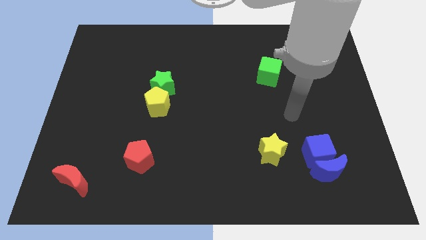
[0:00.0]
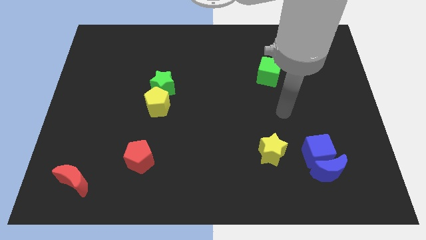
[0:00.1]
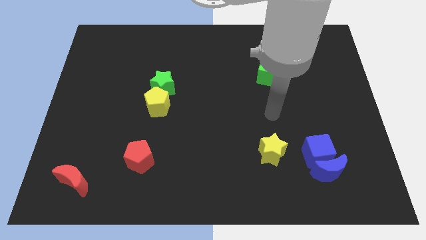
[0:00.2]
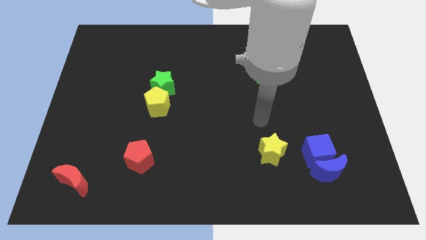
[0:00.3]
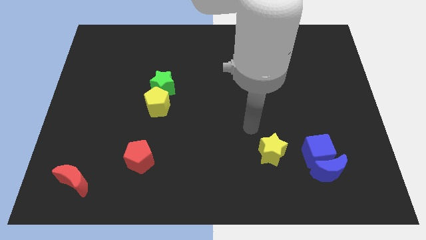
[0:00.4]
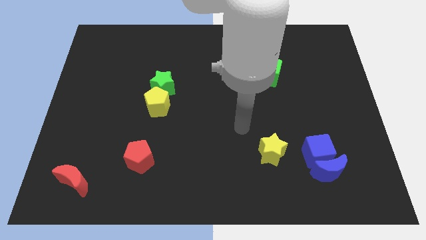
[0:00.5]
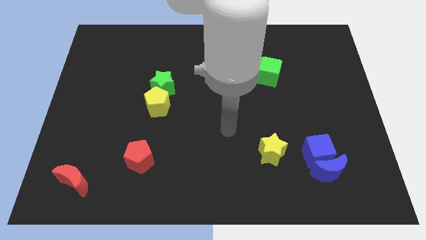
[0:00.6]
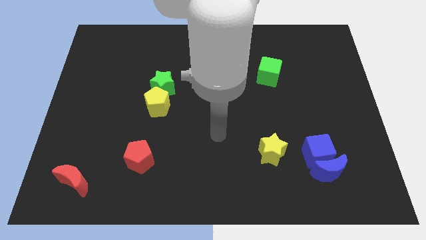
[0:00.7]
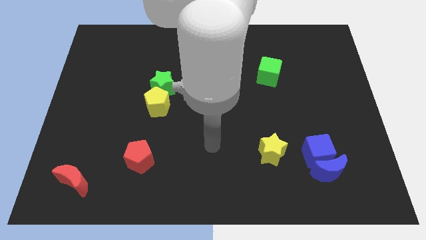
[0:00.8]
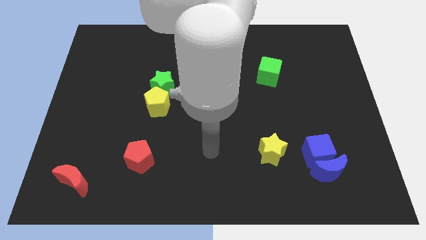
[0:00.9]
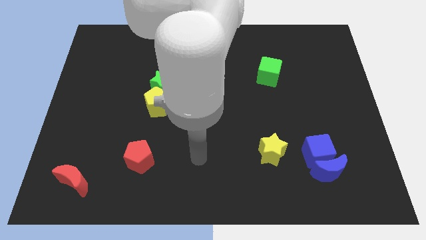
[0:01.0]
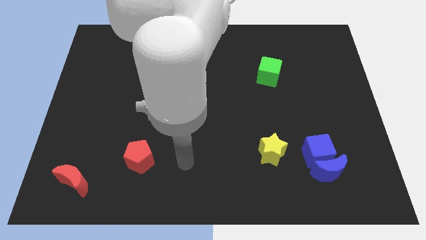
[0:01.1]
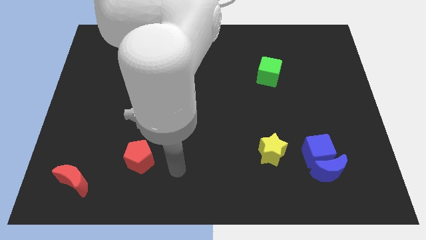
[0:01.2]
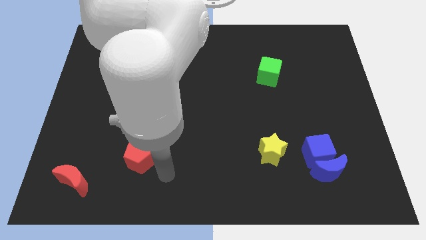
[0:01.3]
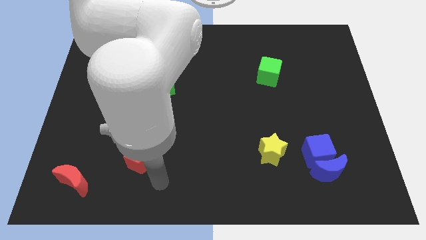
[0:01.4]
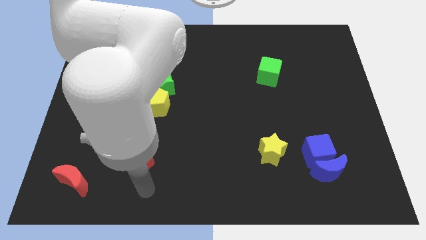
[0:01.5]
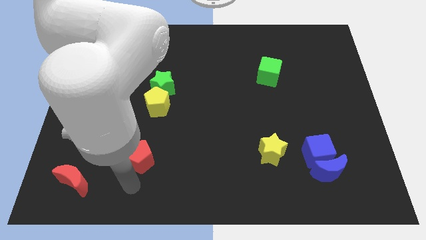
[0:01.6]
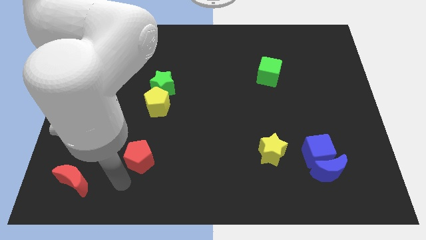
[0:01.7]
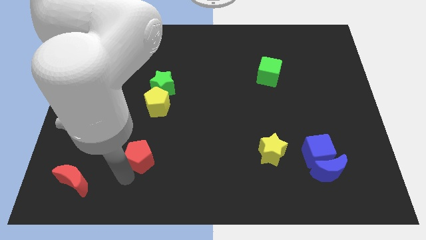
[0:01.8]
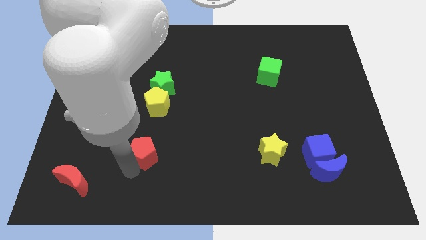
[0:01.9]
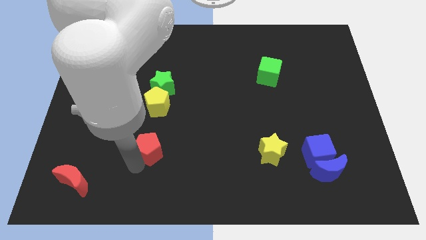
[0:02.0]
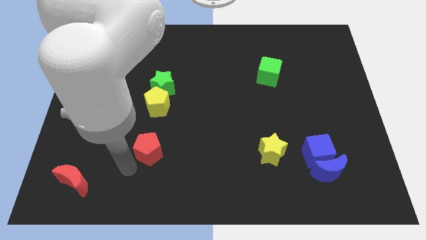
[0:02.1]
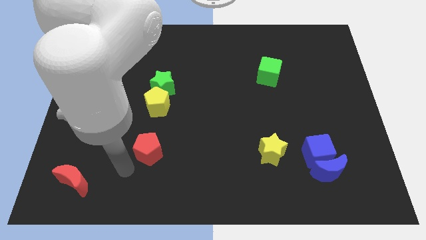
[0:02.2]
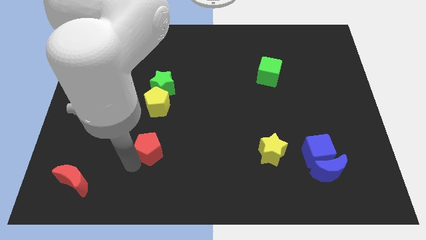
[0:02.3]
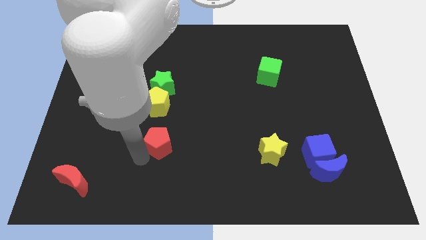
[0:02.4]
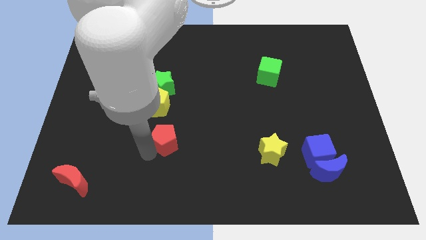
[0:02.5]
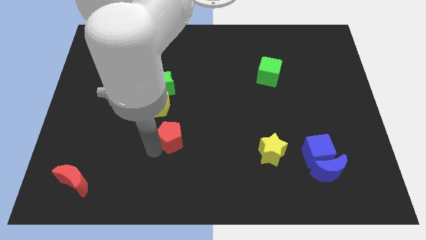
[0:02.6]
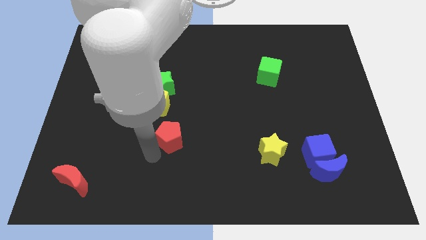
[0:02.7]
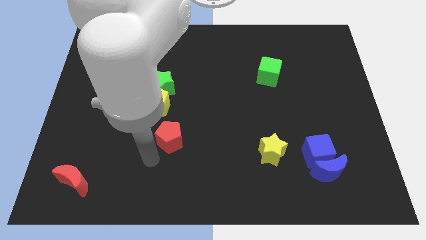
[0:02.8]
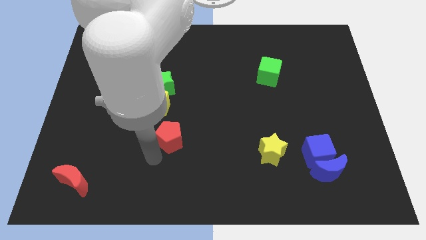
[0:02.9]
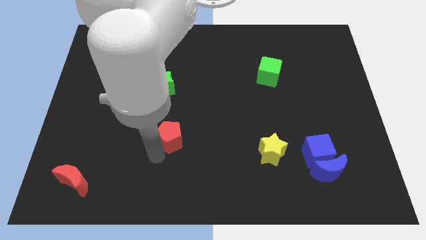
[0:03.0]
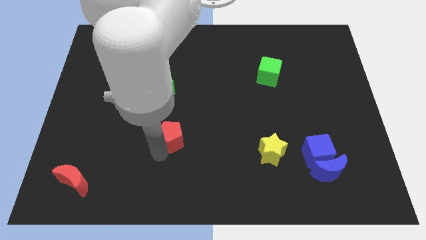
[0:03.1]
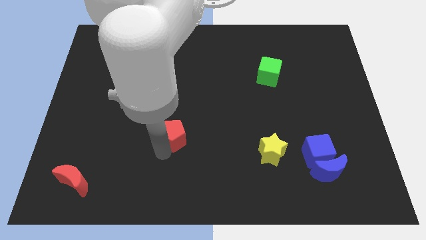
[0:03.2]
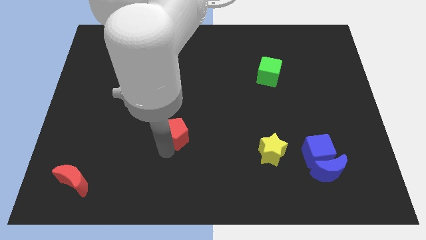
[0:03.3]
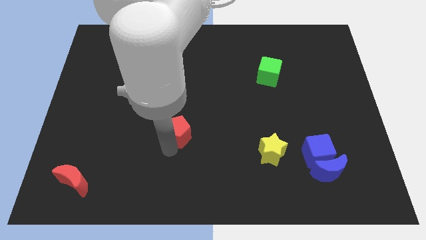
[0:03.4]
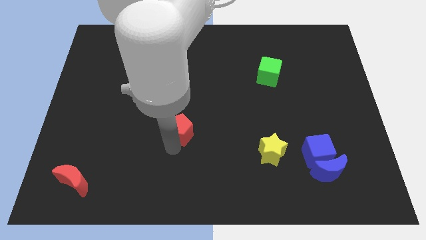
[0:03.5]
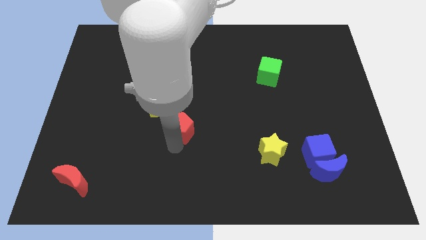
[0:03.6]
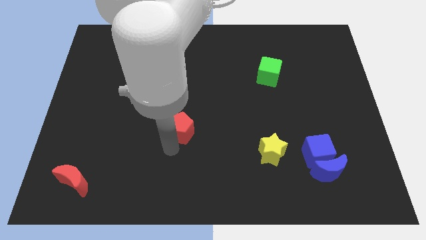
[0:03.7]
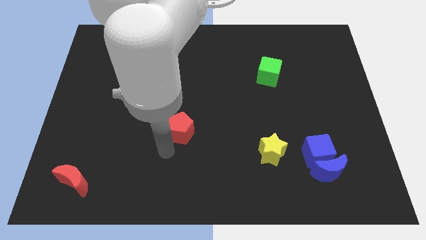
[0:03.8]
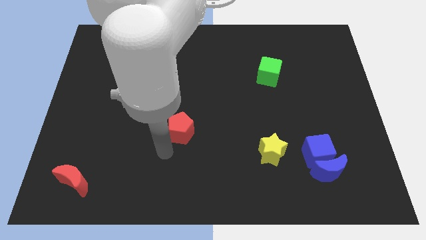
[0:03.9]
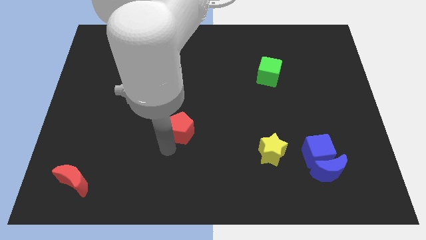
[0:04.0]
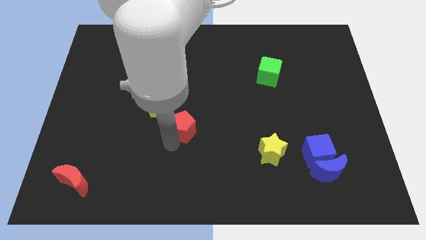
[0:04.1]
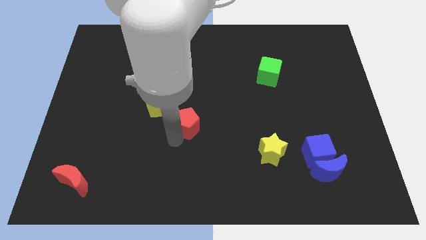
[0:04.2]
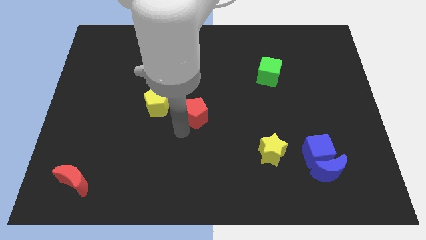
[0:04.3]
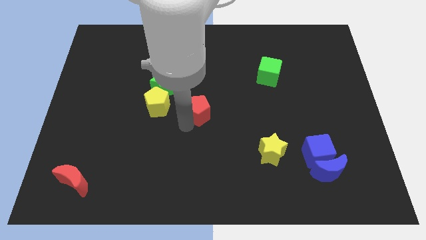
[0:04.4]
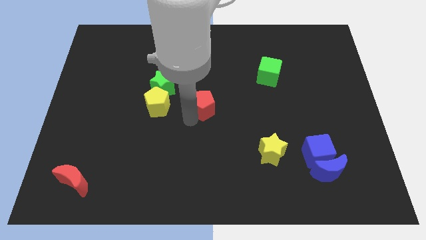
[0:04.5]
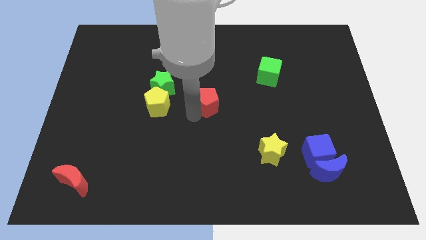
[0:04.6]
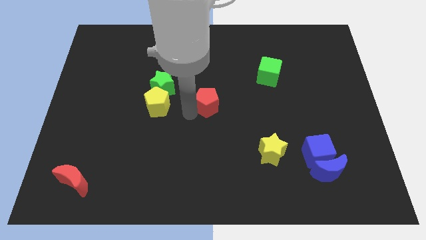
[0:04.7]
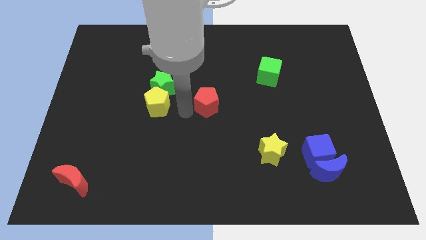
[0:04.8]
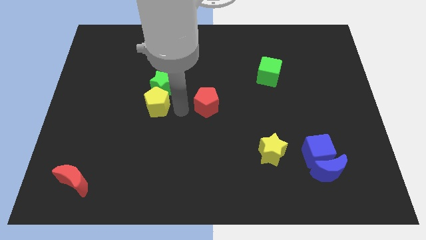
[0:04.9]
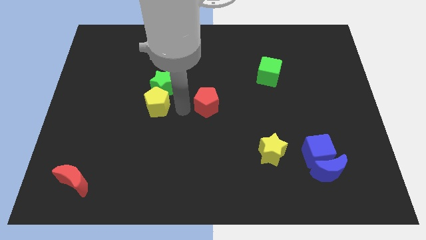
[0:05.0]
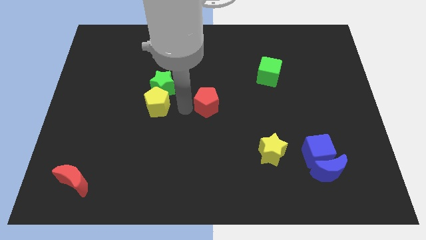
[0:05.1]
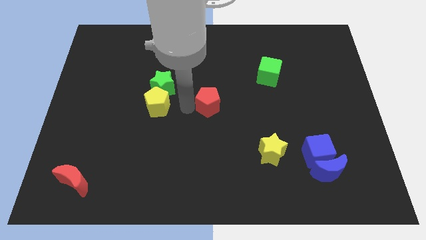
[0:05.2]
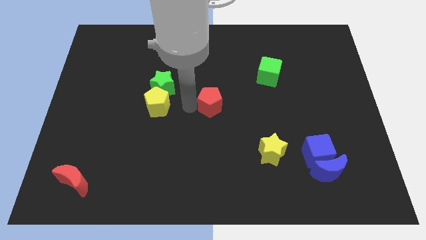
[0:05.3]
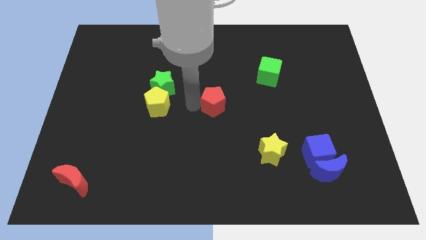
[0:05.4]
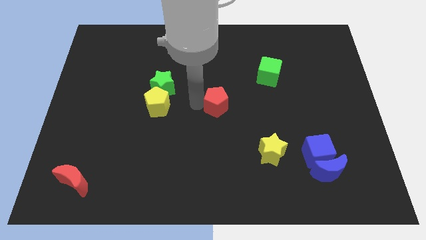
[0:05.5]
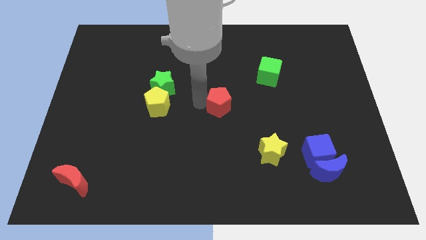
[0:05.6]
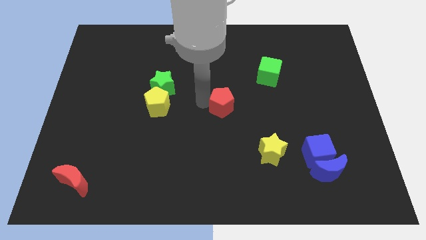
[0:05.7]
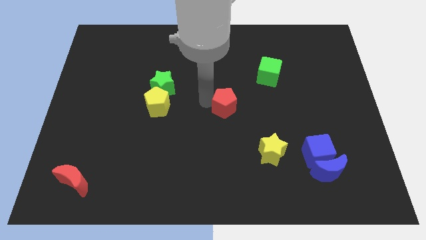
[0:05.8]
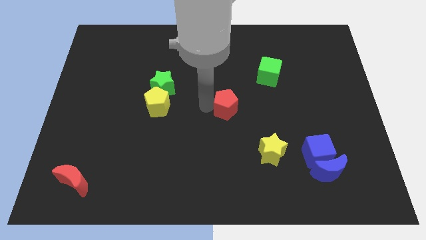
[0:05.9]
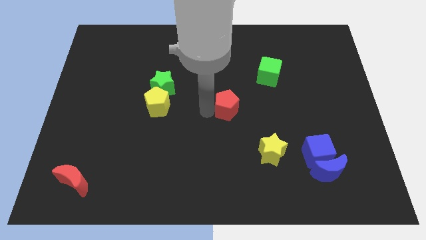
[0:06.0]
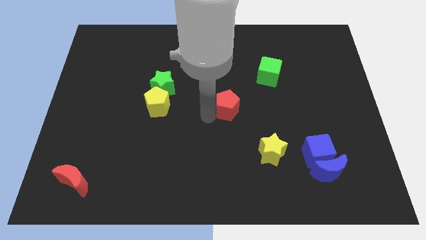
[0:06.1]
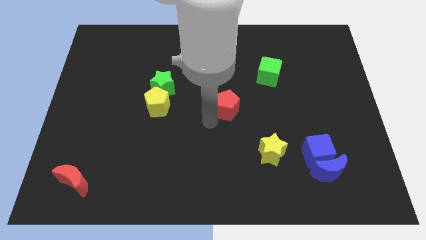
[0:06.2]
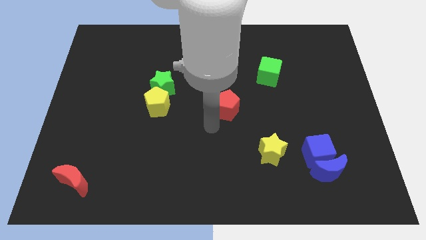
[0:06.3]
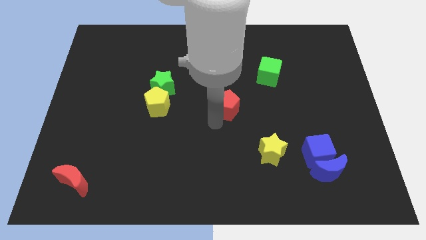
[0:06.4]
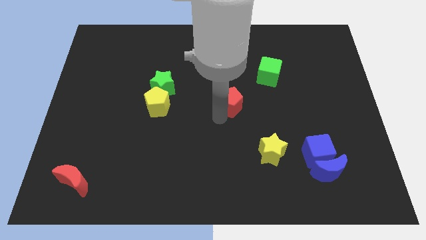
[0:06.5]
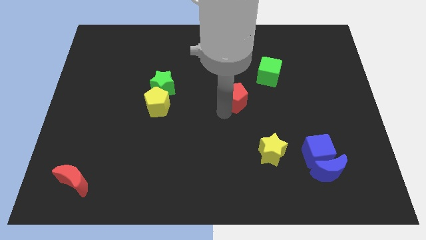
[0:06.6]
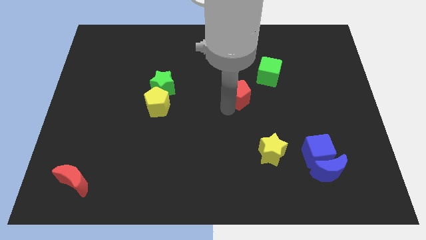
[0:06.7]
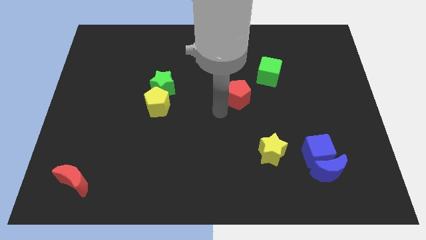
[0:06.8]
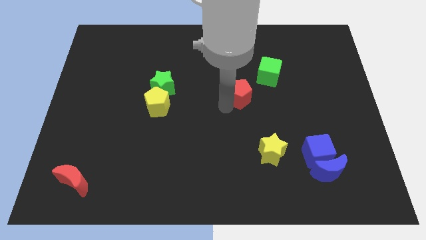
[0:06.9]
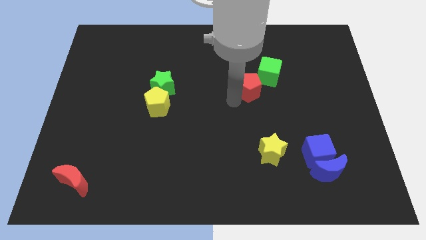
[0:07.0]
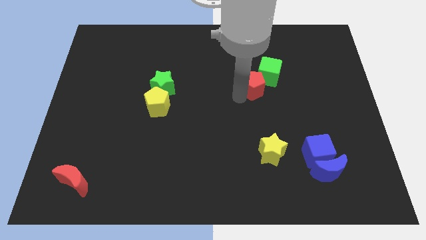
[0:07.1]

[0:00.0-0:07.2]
slide the red pentagon to the green cube

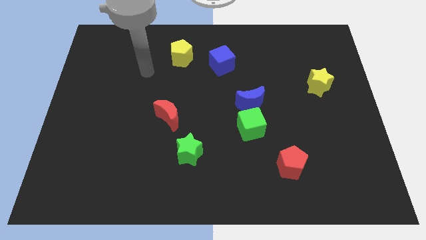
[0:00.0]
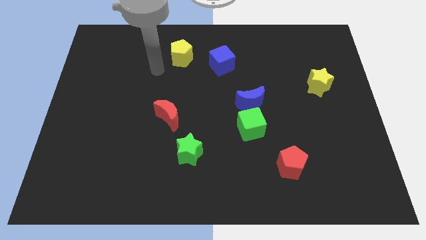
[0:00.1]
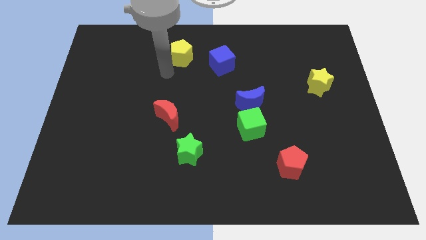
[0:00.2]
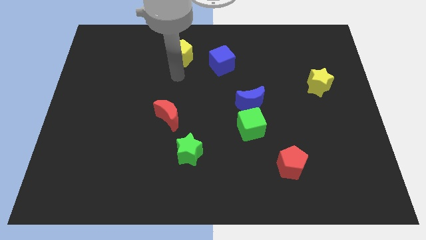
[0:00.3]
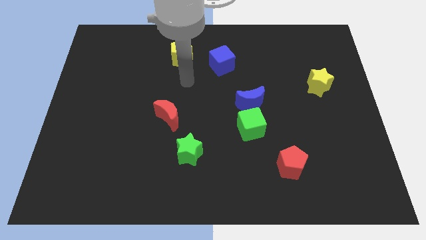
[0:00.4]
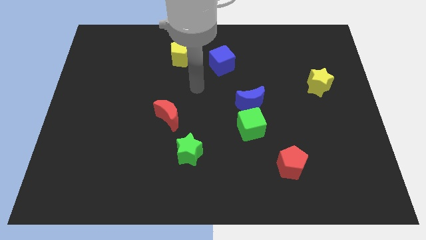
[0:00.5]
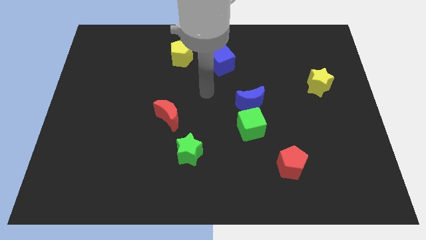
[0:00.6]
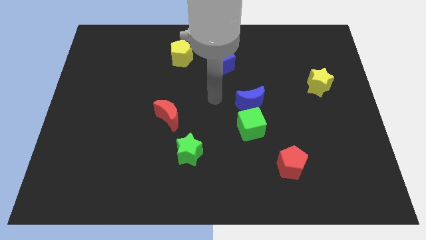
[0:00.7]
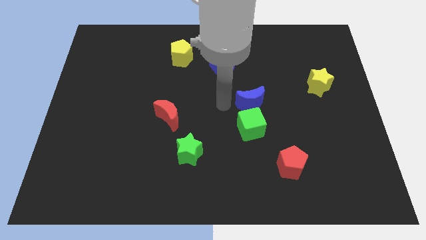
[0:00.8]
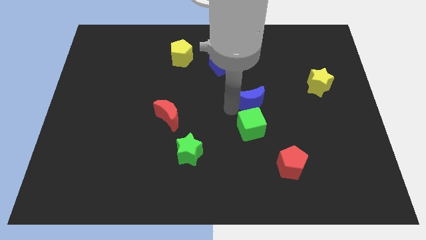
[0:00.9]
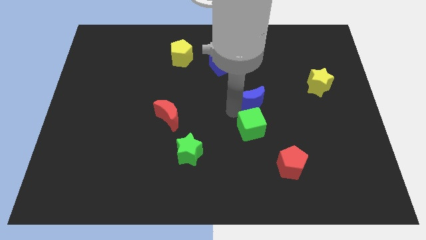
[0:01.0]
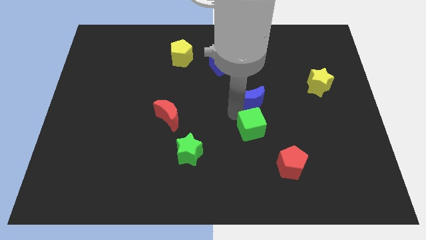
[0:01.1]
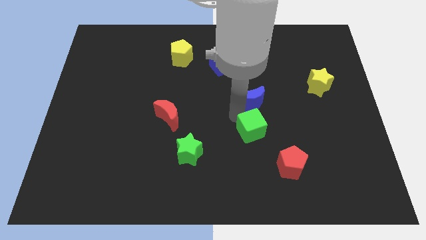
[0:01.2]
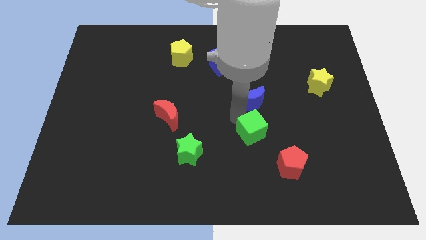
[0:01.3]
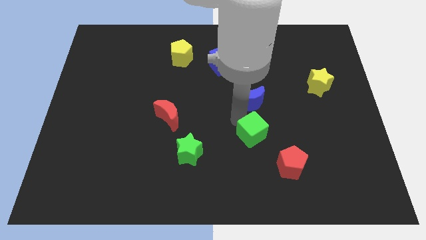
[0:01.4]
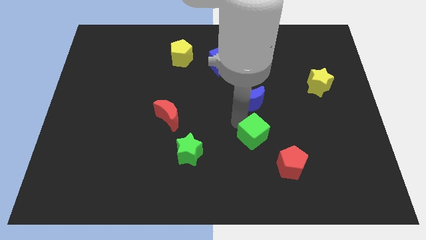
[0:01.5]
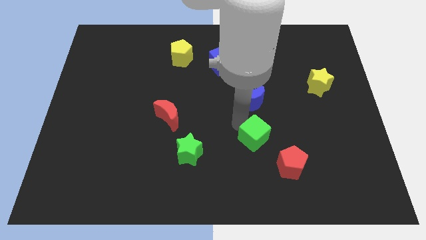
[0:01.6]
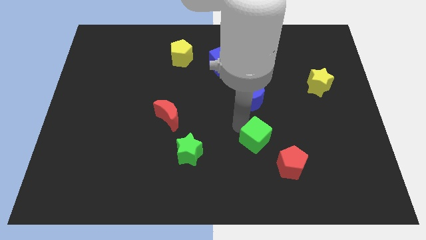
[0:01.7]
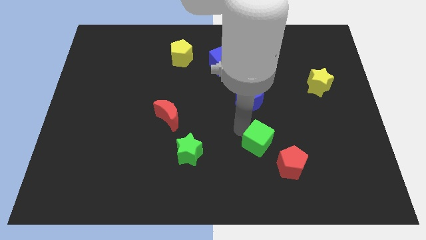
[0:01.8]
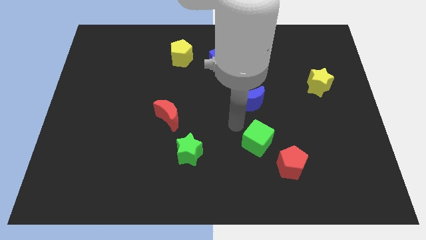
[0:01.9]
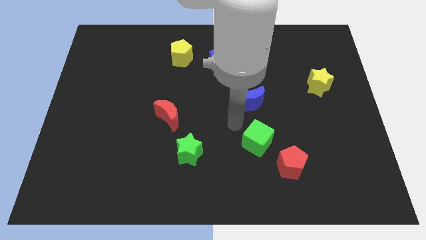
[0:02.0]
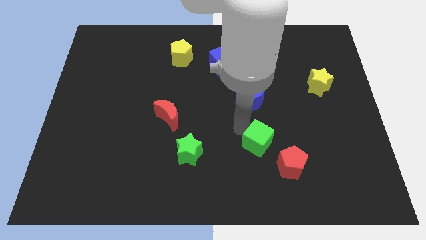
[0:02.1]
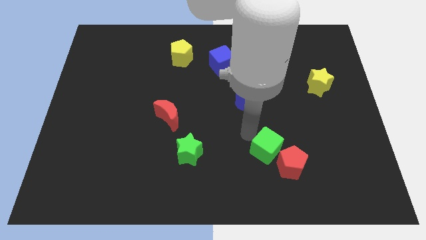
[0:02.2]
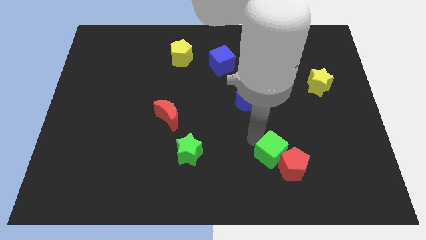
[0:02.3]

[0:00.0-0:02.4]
put the green cube next to the red pentagon
